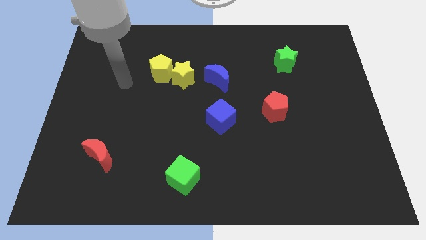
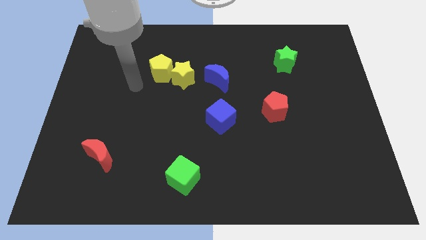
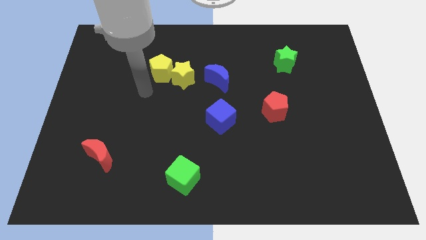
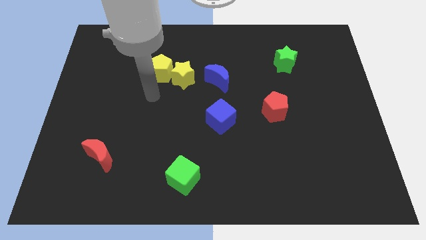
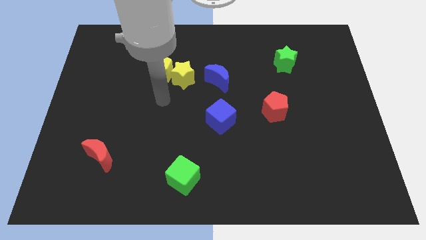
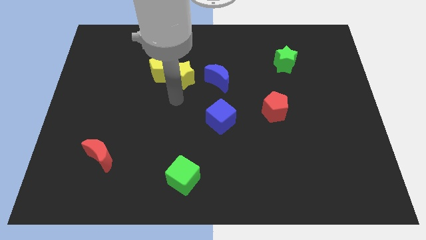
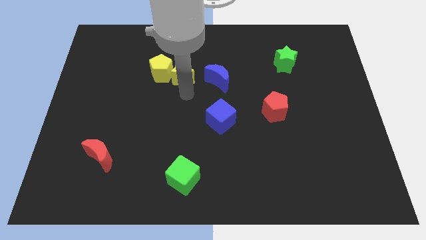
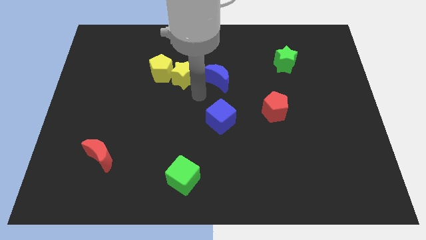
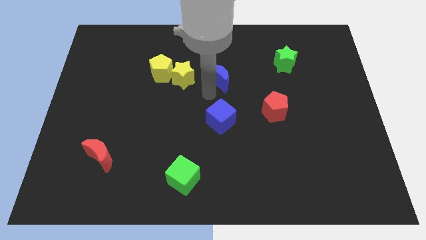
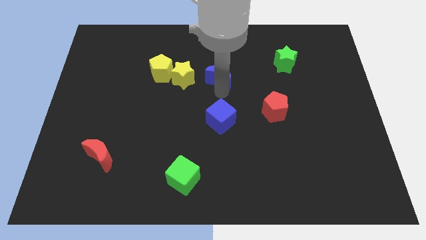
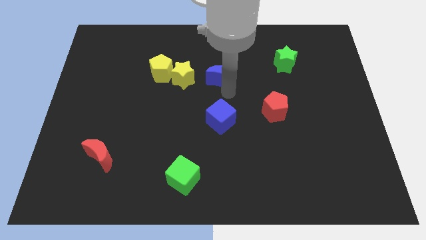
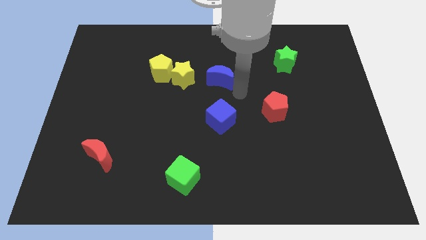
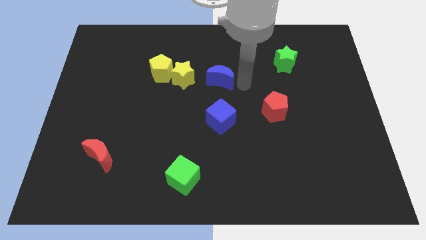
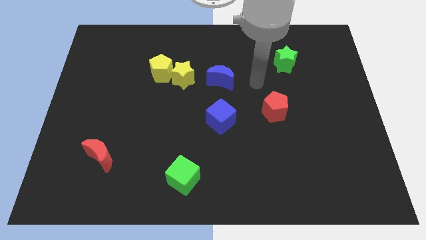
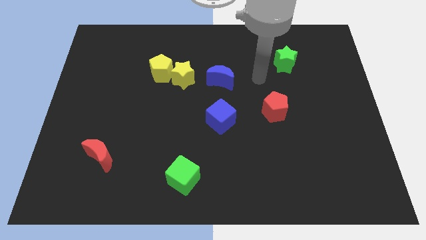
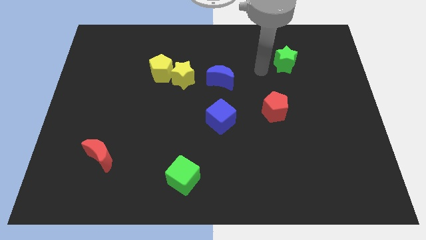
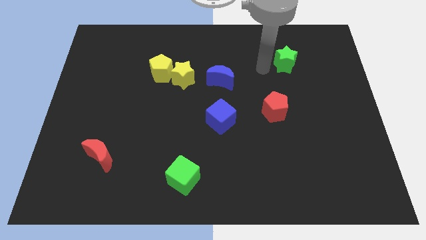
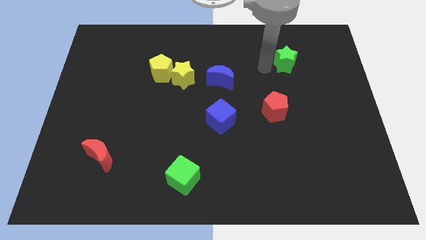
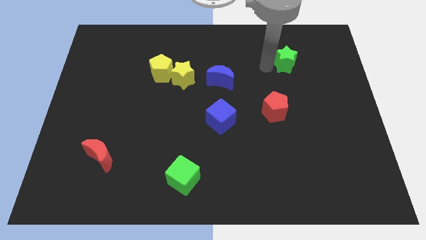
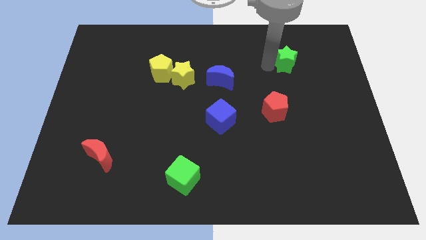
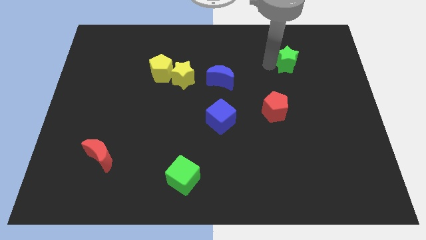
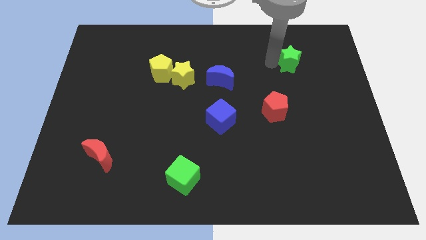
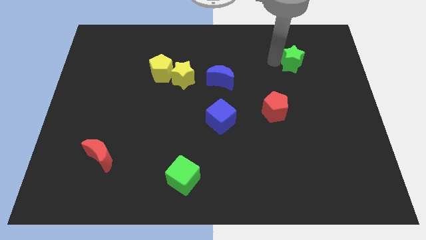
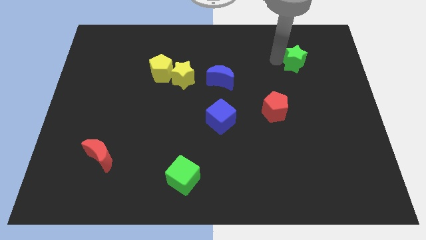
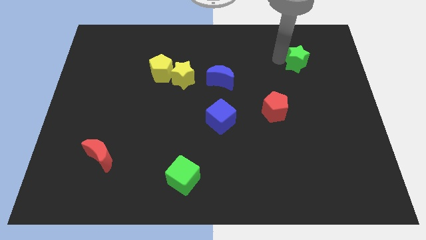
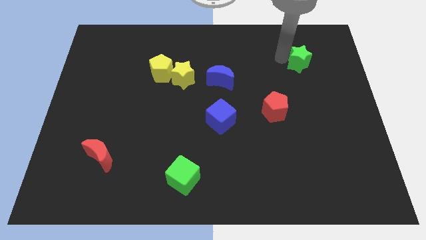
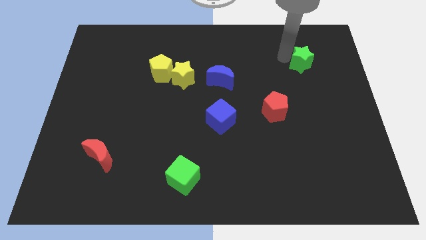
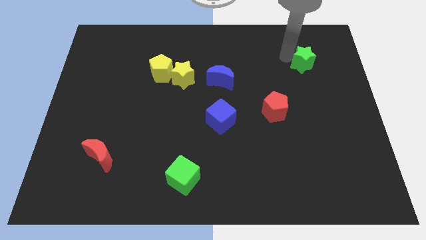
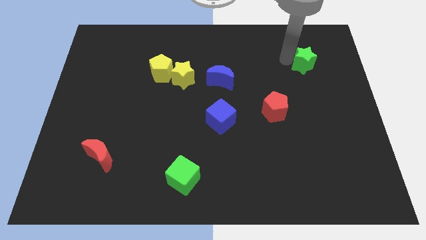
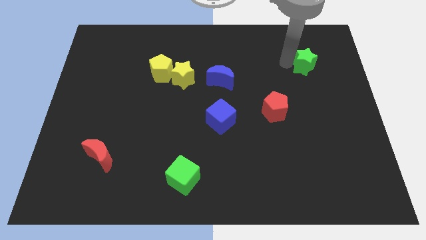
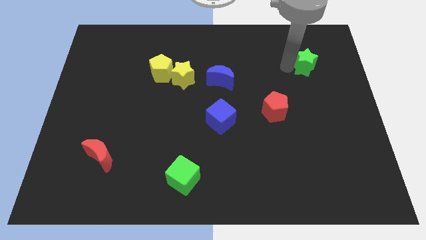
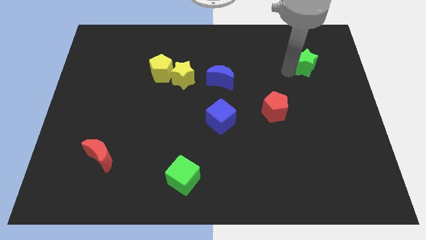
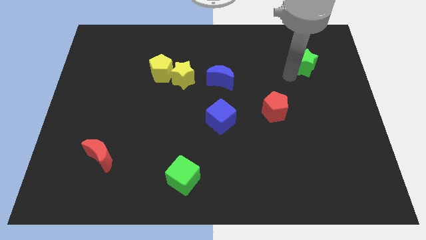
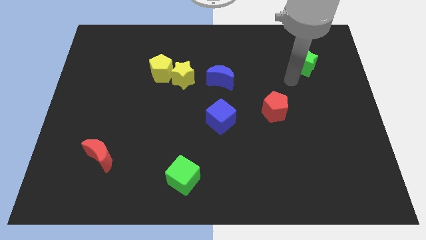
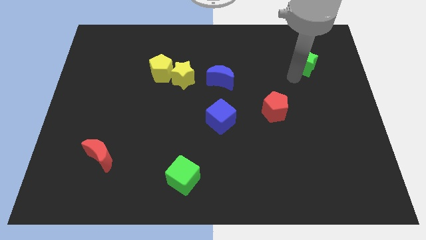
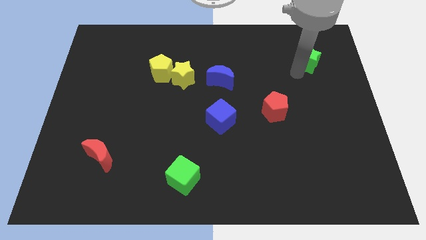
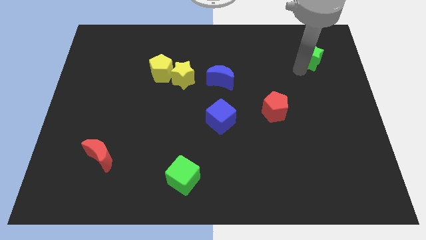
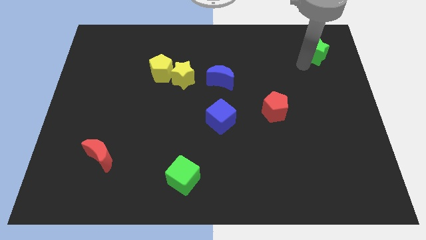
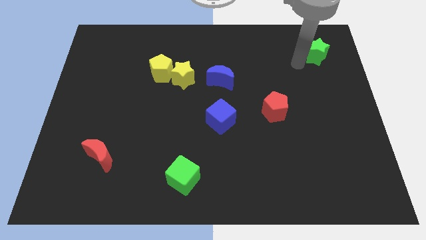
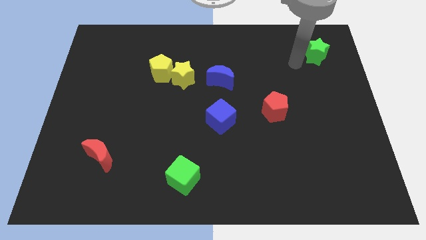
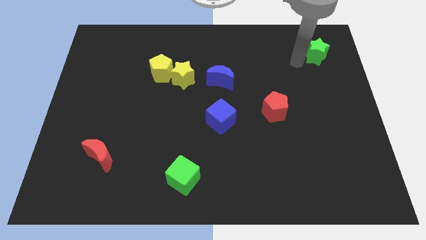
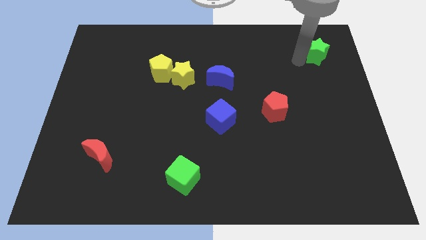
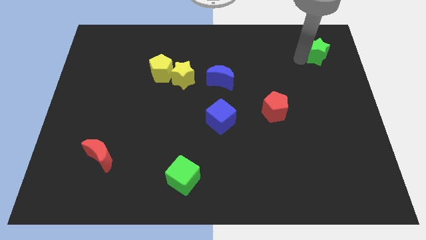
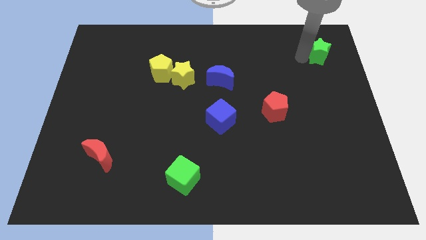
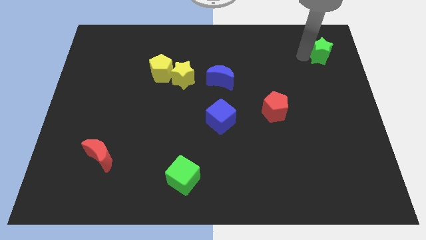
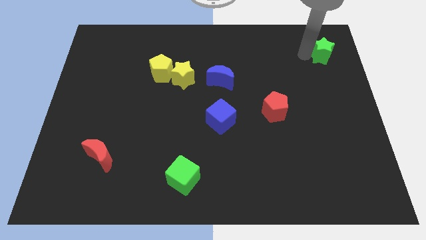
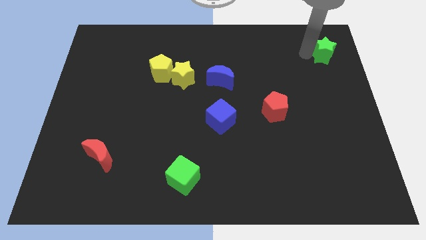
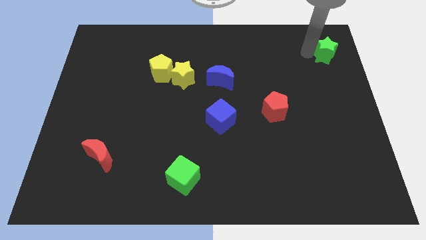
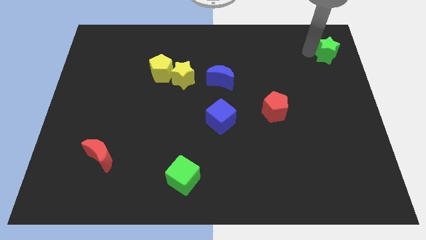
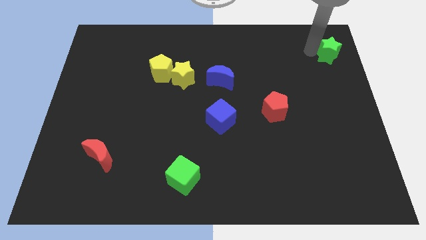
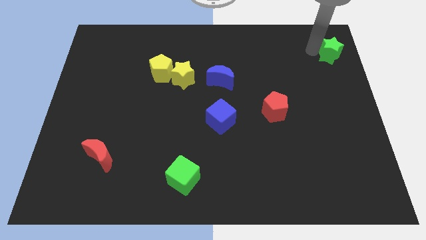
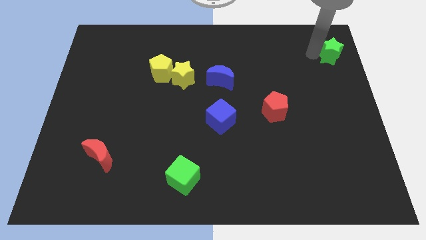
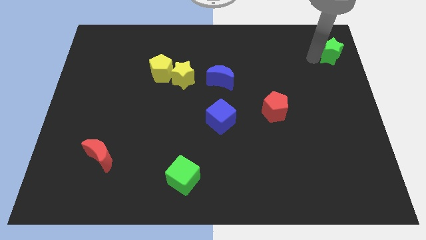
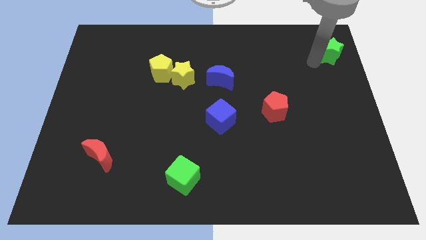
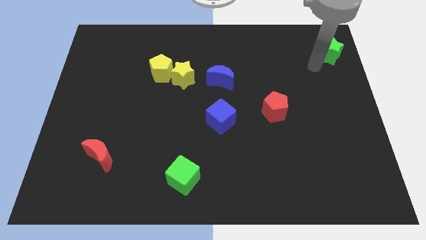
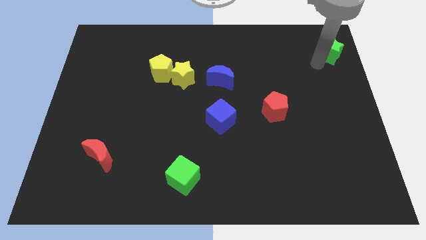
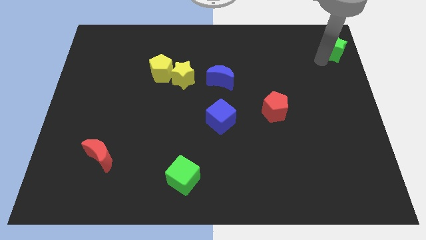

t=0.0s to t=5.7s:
put the green star to the top right of the board

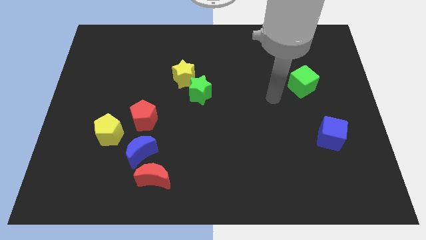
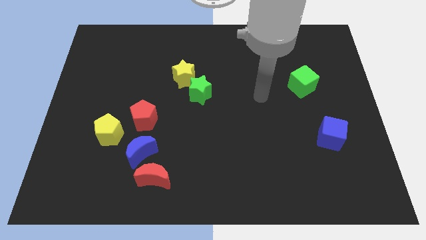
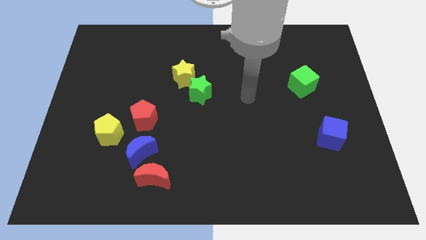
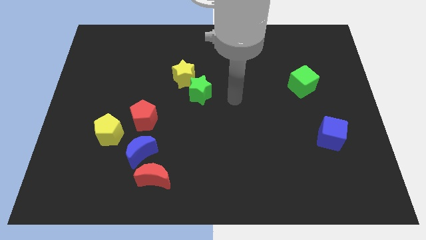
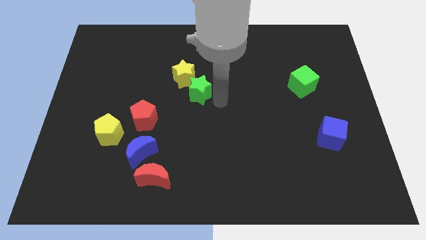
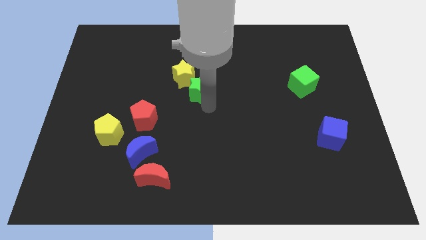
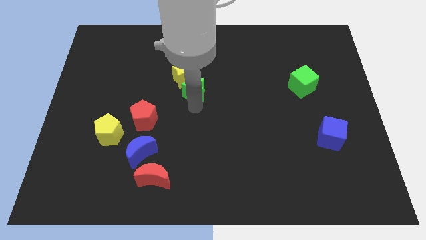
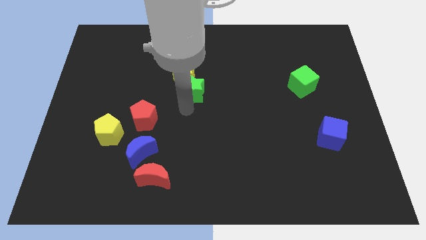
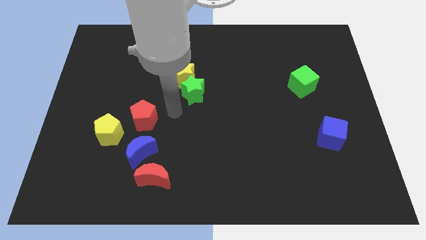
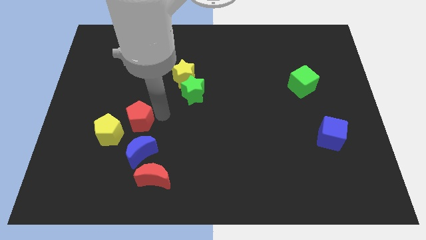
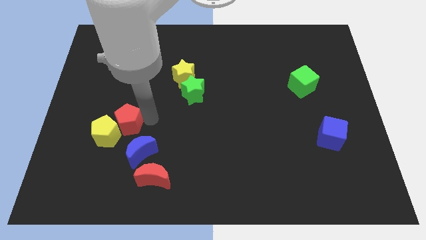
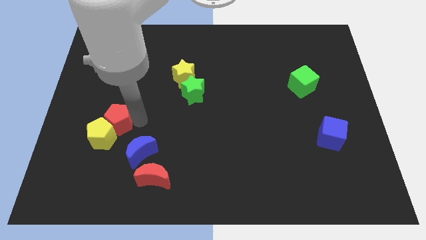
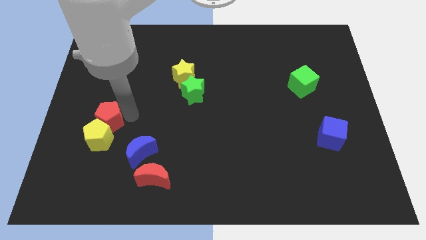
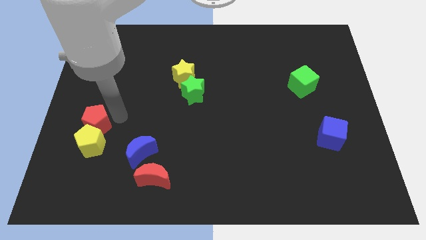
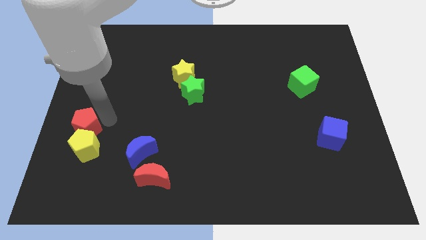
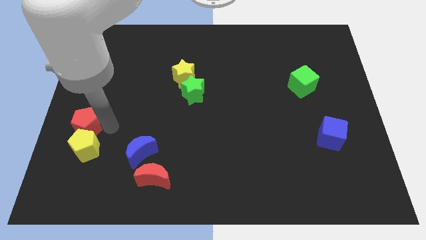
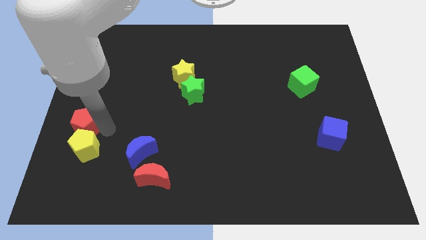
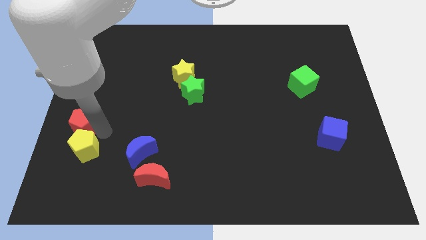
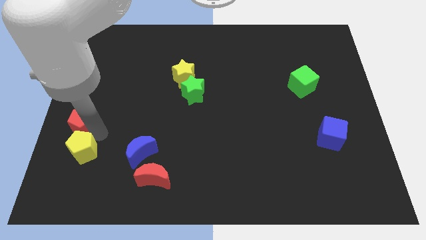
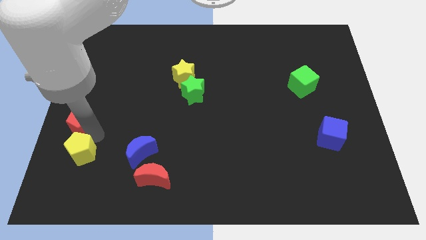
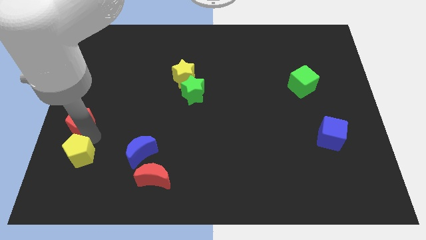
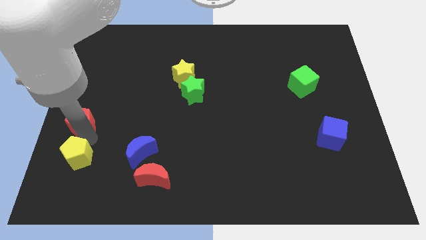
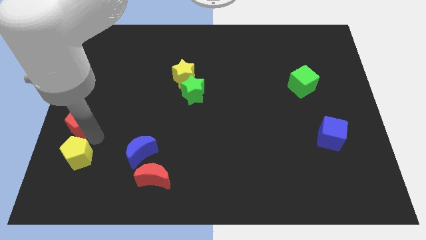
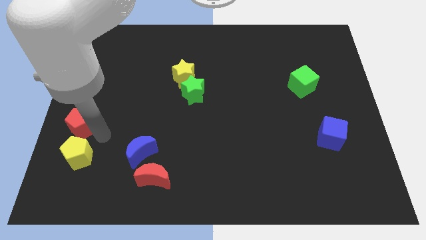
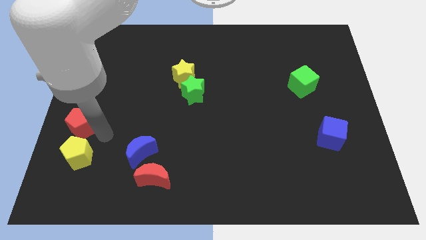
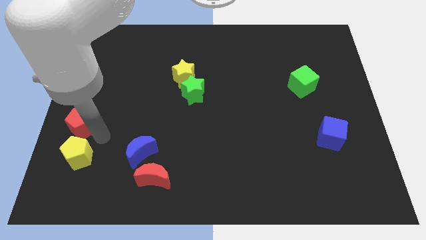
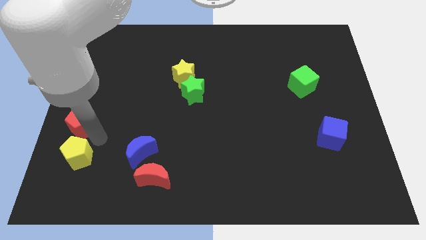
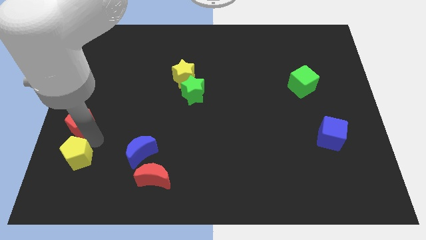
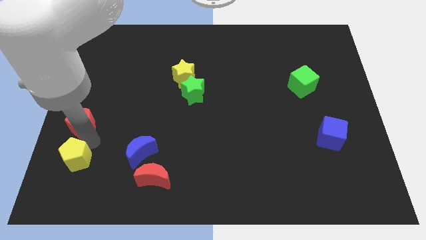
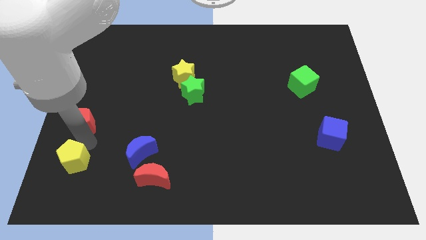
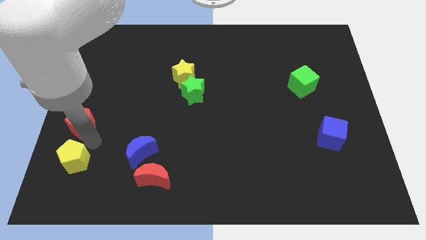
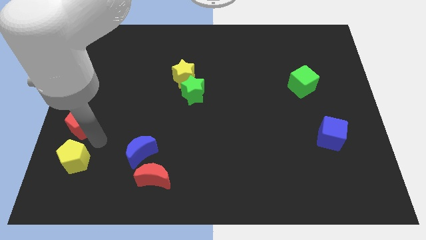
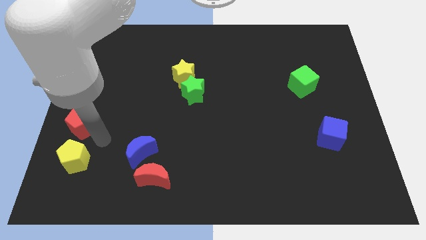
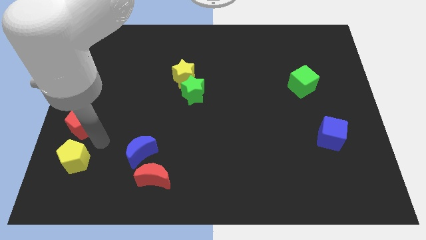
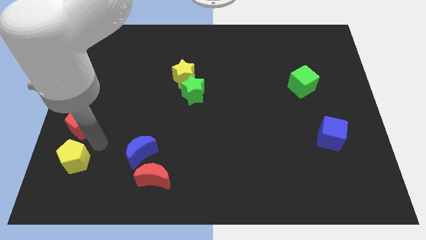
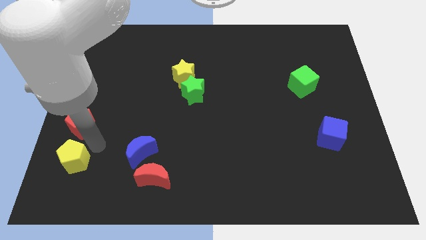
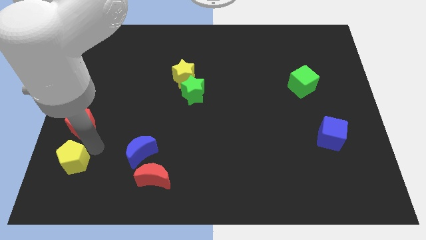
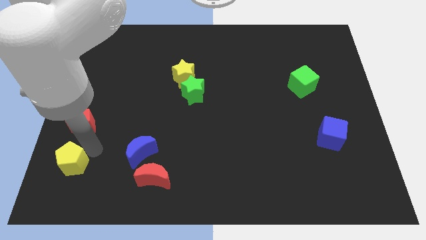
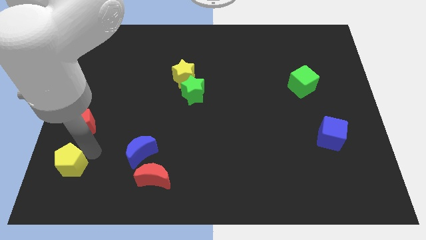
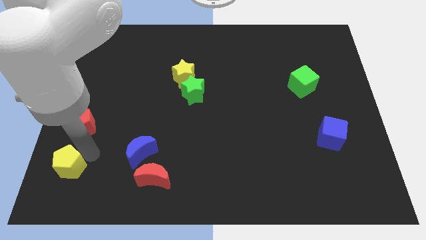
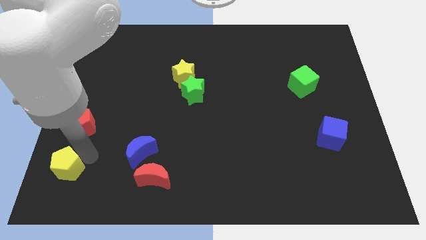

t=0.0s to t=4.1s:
push the yellow pentagon to the bottom left corner
